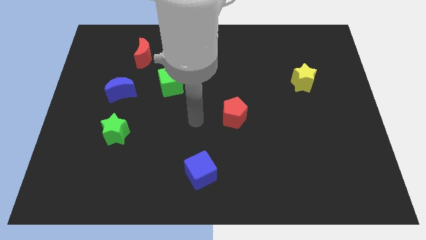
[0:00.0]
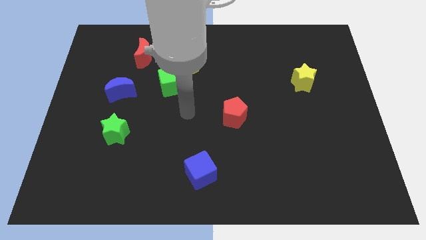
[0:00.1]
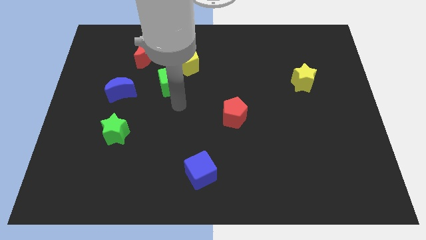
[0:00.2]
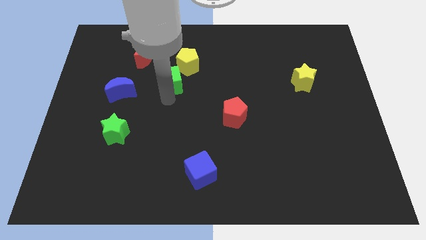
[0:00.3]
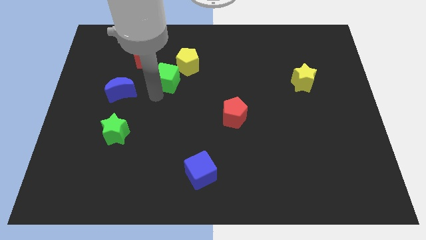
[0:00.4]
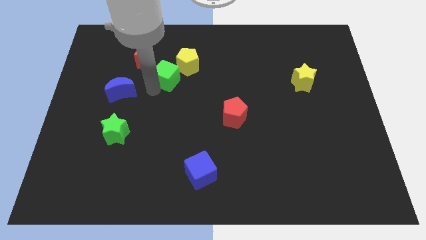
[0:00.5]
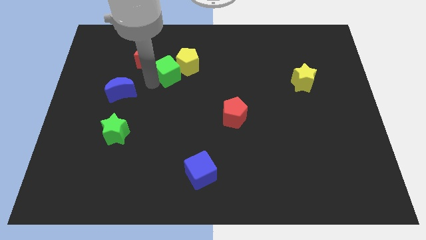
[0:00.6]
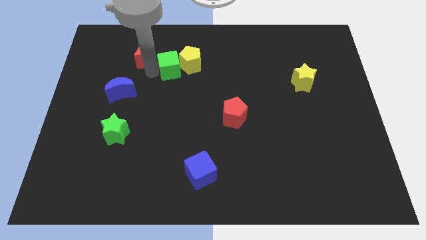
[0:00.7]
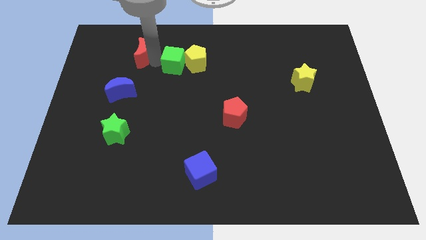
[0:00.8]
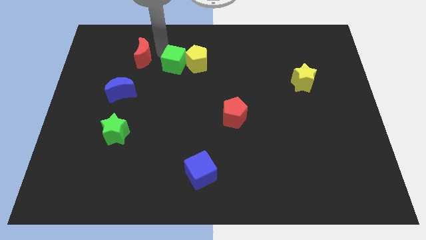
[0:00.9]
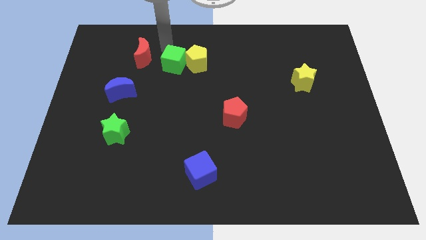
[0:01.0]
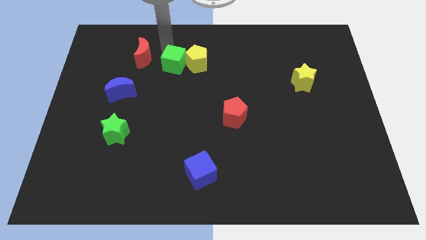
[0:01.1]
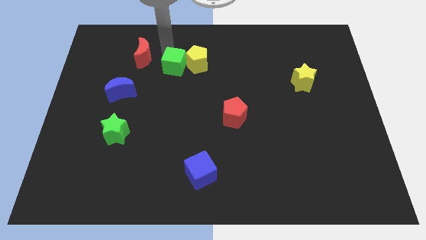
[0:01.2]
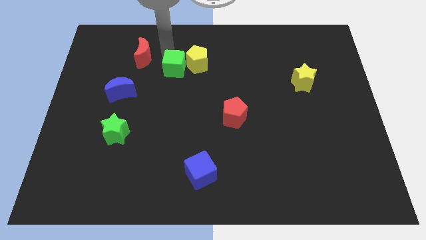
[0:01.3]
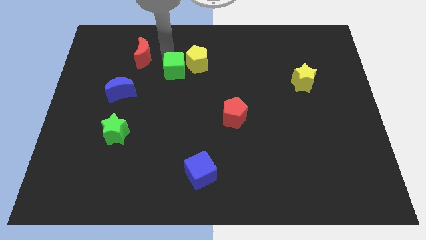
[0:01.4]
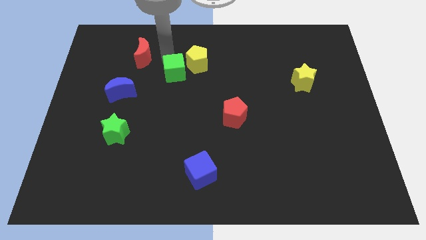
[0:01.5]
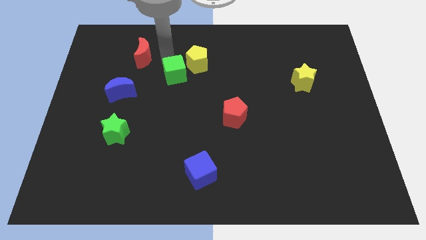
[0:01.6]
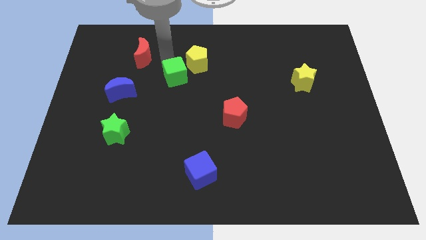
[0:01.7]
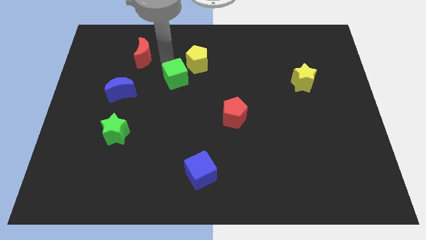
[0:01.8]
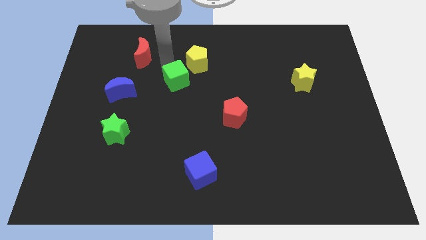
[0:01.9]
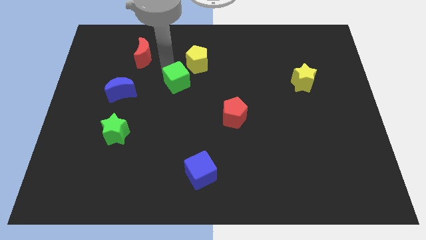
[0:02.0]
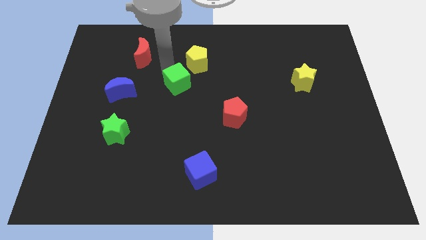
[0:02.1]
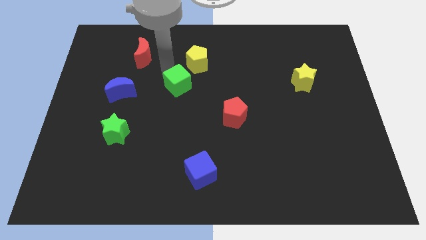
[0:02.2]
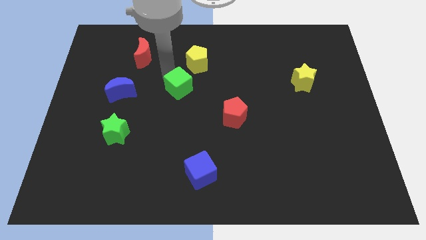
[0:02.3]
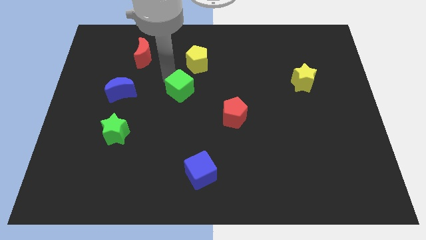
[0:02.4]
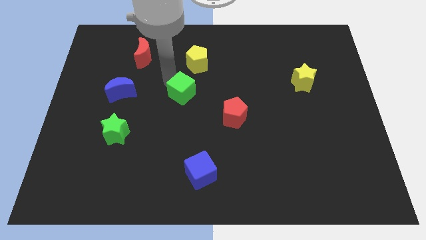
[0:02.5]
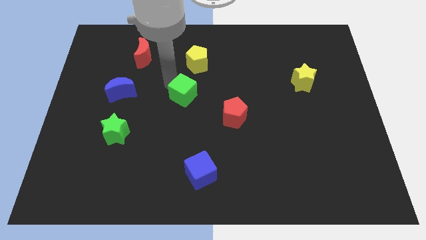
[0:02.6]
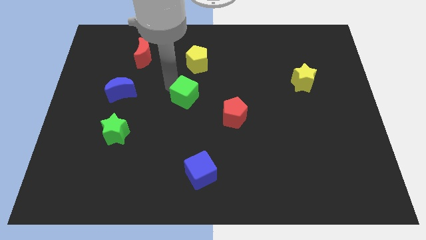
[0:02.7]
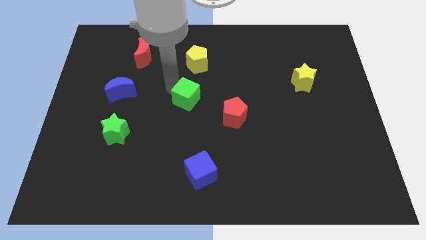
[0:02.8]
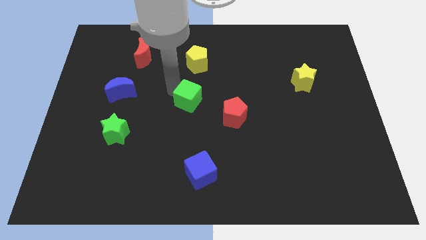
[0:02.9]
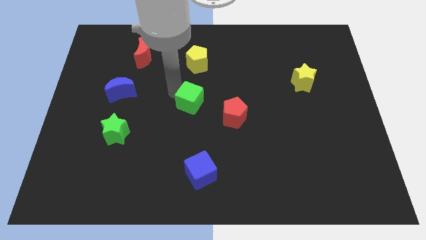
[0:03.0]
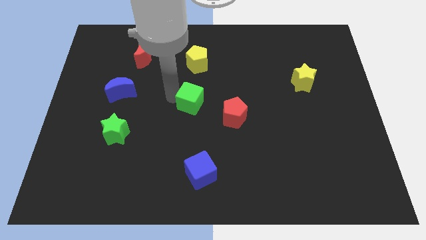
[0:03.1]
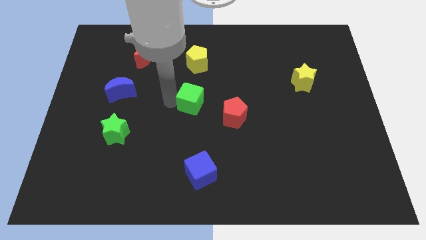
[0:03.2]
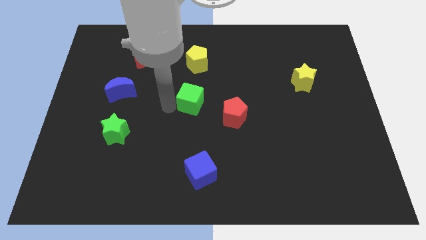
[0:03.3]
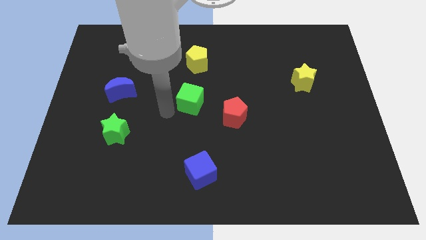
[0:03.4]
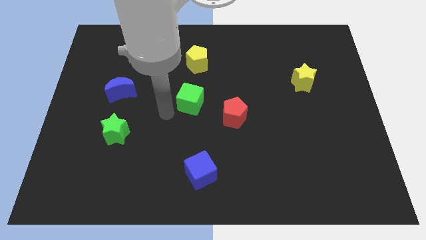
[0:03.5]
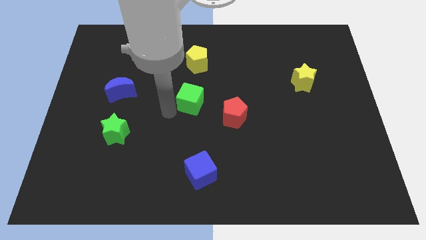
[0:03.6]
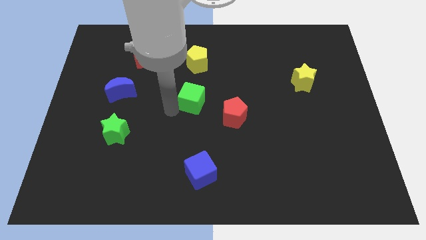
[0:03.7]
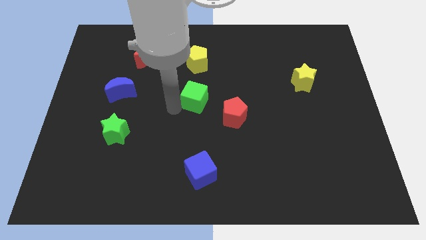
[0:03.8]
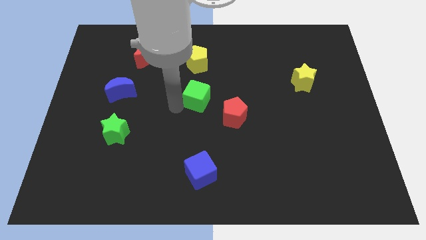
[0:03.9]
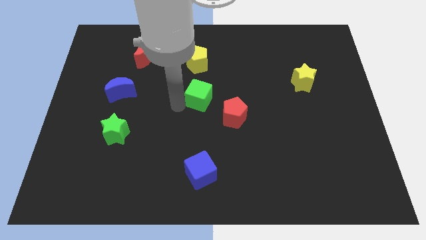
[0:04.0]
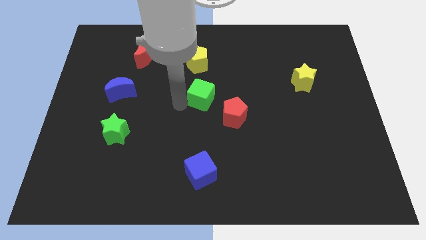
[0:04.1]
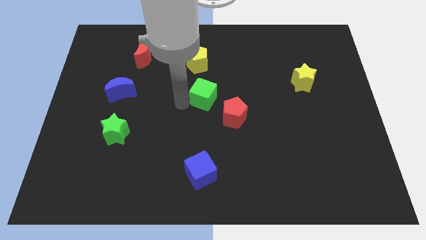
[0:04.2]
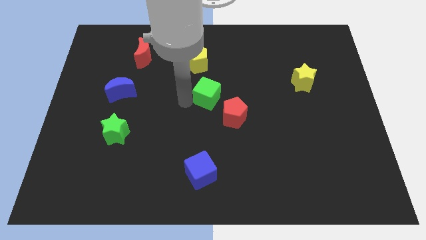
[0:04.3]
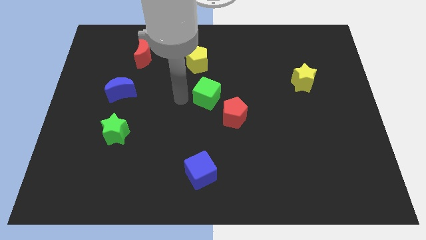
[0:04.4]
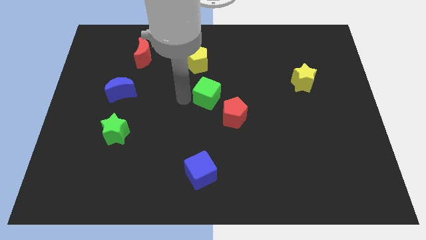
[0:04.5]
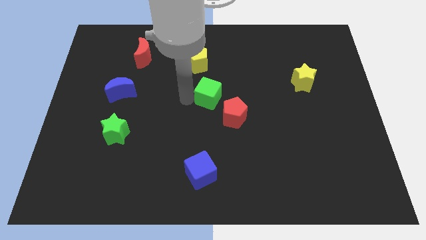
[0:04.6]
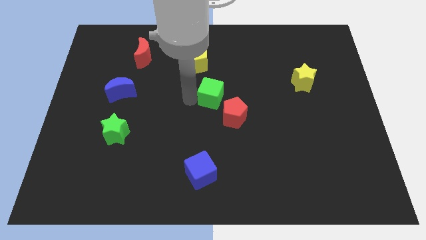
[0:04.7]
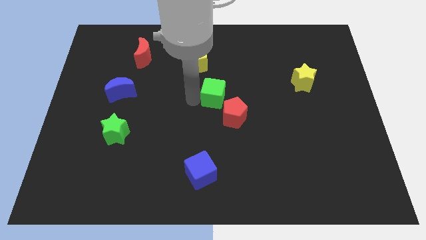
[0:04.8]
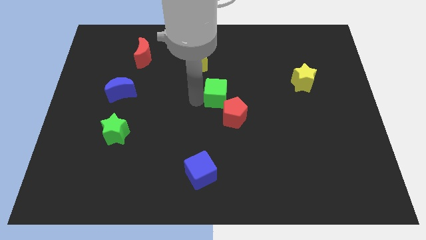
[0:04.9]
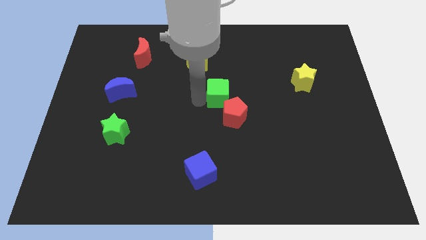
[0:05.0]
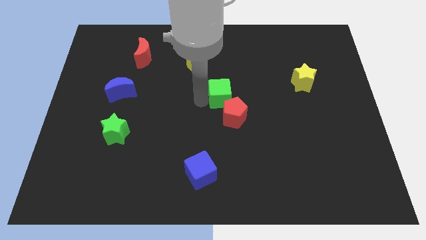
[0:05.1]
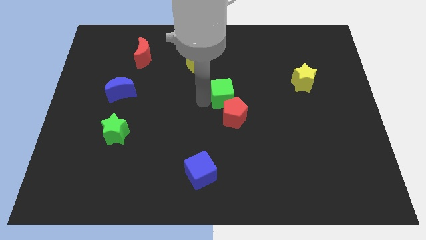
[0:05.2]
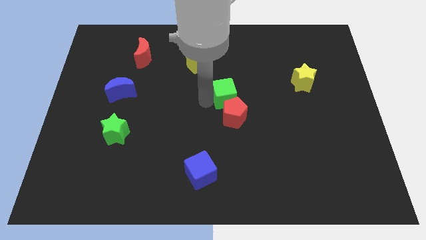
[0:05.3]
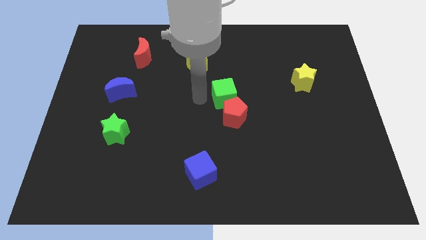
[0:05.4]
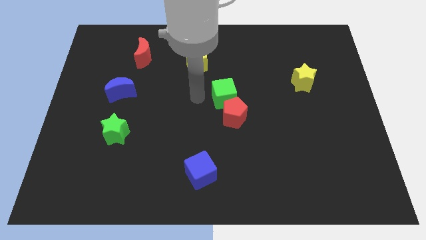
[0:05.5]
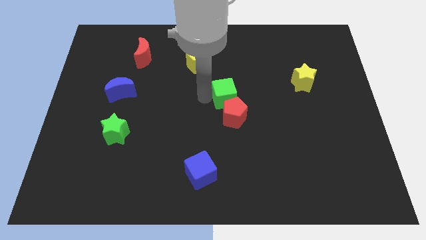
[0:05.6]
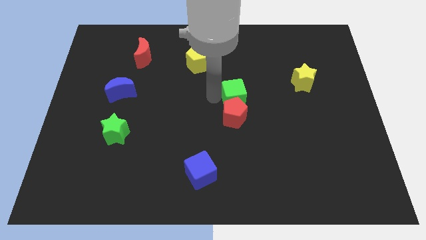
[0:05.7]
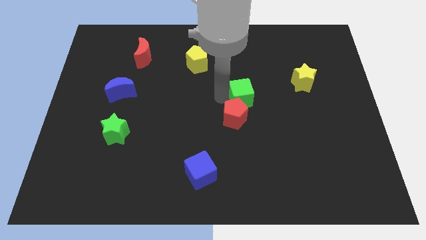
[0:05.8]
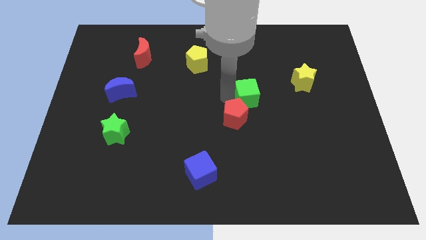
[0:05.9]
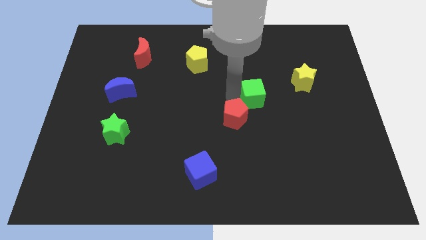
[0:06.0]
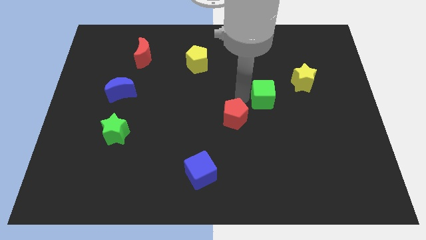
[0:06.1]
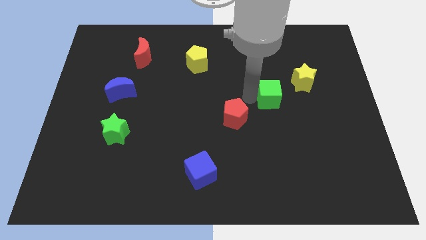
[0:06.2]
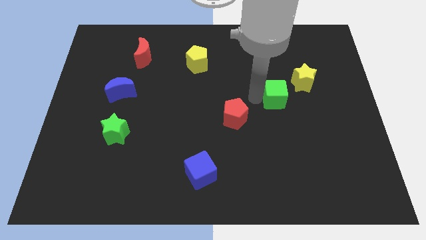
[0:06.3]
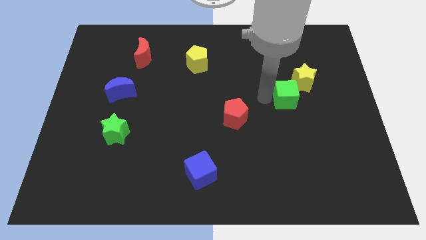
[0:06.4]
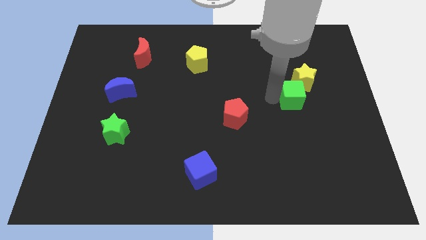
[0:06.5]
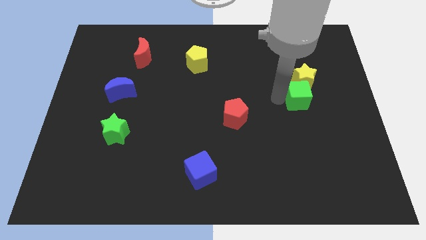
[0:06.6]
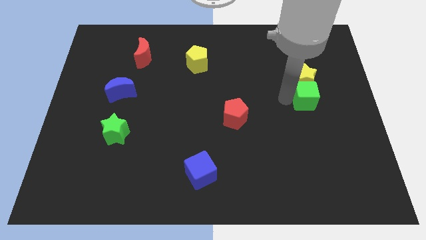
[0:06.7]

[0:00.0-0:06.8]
put the green cube diagonally down and to the right of the yellow star
